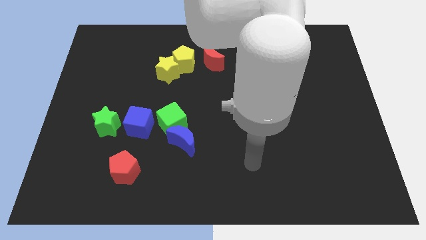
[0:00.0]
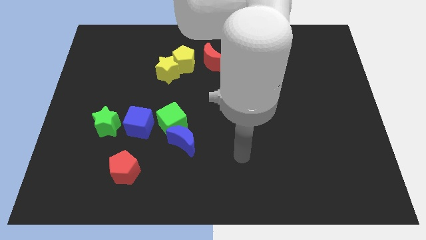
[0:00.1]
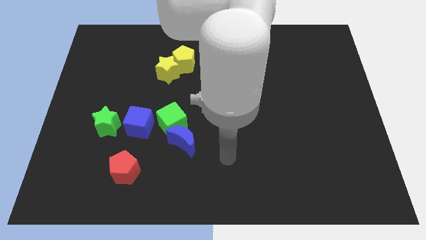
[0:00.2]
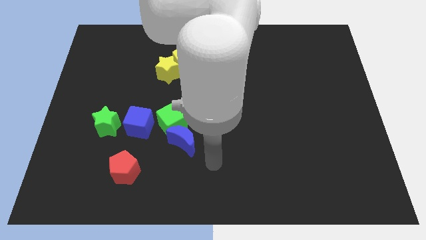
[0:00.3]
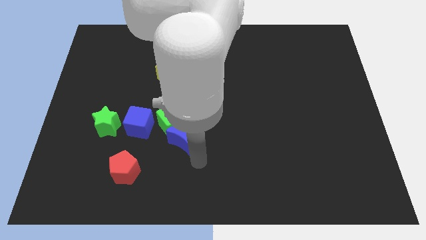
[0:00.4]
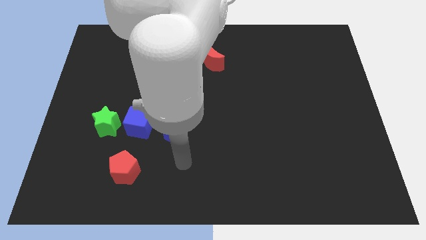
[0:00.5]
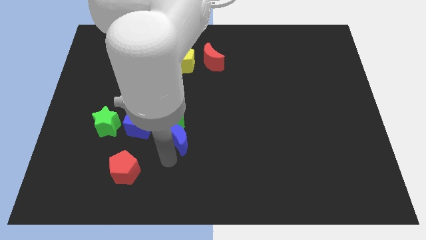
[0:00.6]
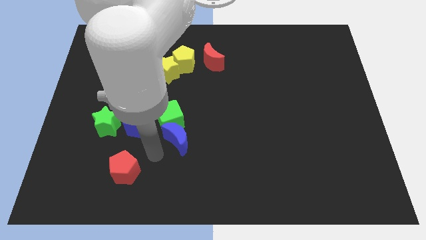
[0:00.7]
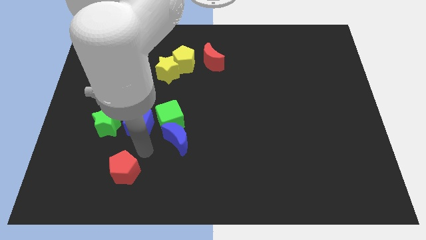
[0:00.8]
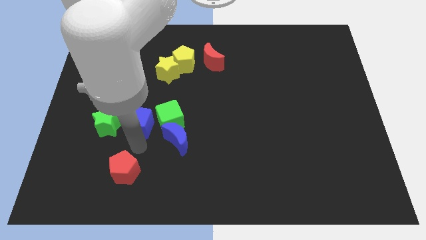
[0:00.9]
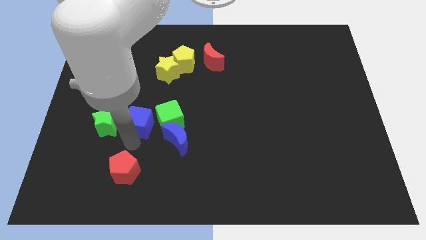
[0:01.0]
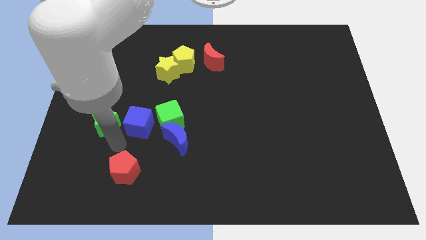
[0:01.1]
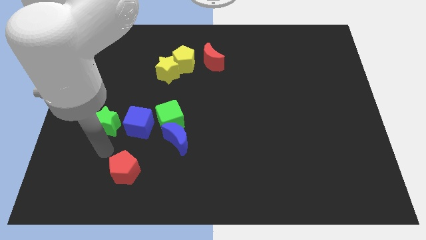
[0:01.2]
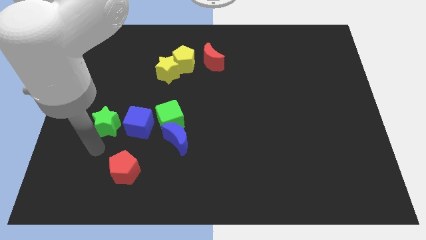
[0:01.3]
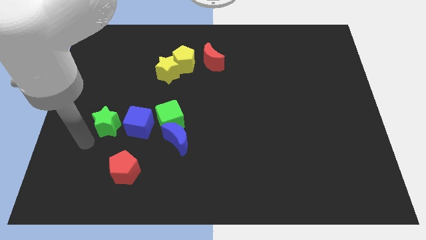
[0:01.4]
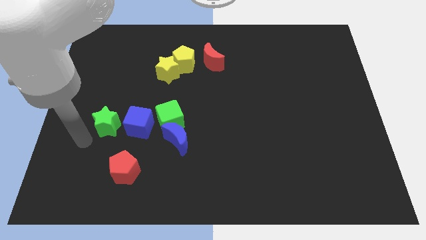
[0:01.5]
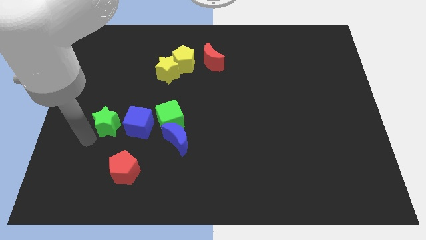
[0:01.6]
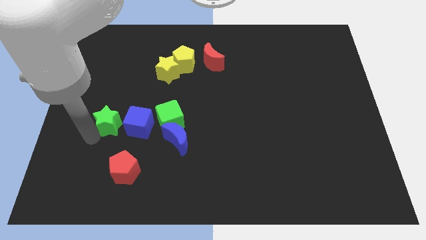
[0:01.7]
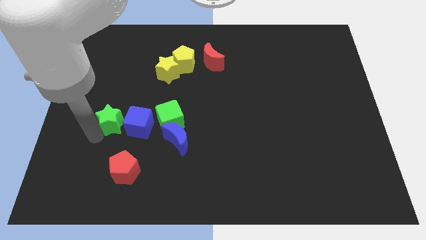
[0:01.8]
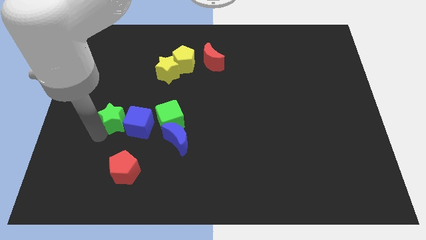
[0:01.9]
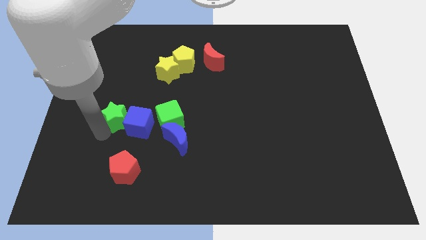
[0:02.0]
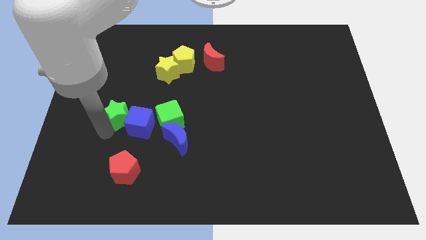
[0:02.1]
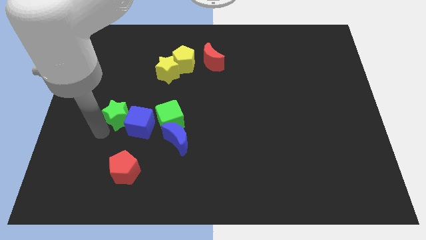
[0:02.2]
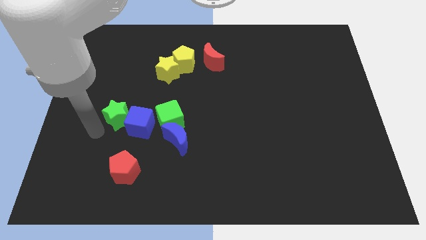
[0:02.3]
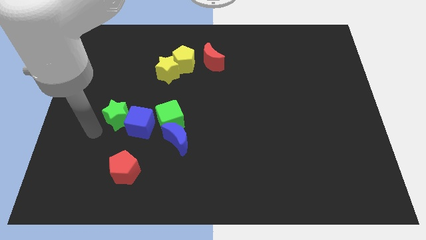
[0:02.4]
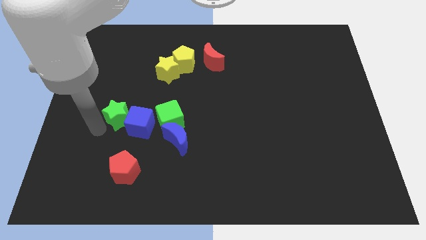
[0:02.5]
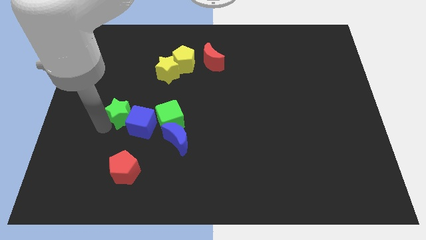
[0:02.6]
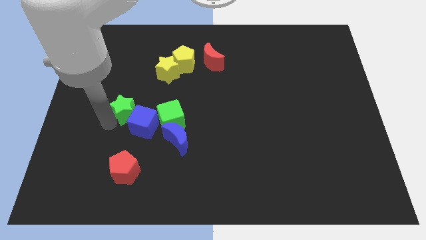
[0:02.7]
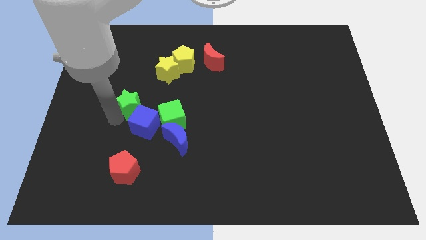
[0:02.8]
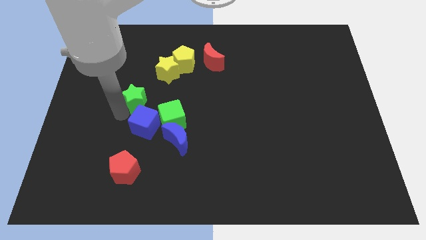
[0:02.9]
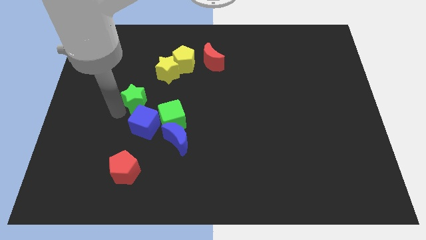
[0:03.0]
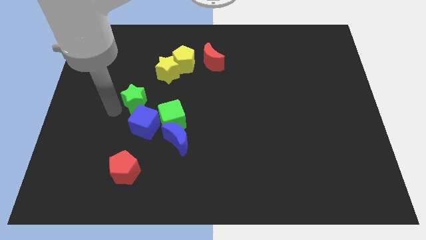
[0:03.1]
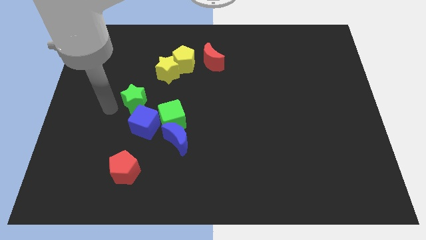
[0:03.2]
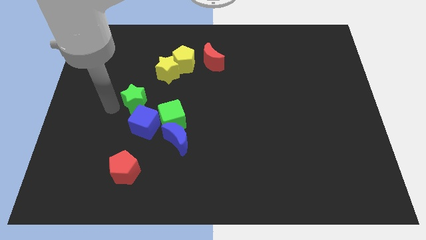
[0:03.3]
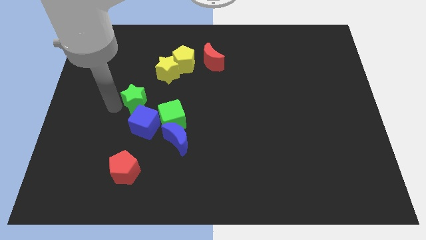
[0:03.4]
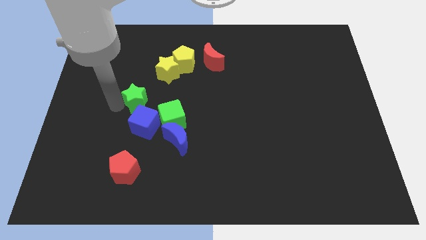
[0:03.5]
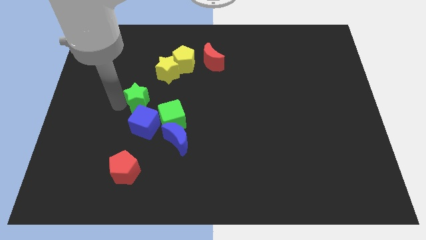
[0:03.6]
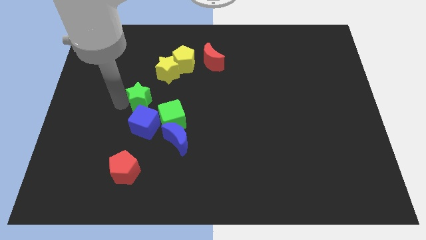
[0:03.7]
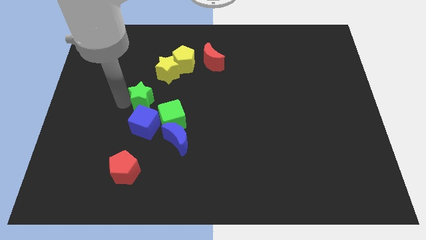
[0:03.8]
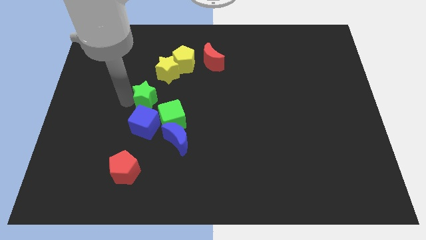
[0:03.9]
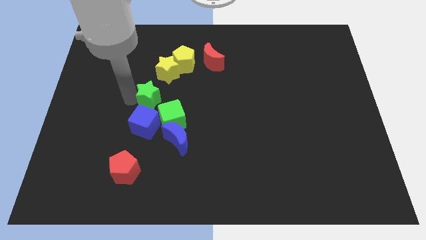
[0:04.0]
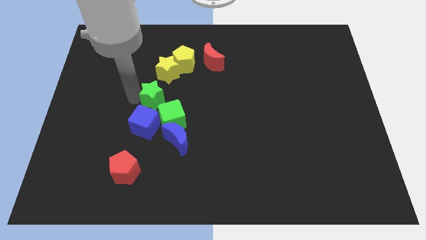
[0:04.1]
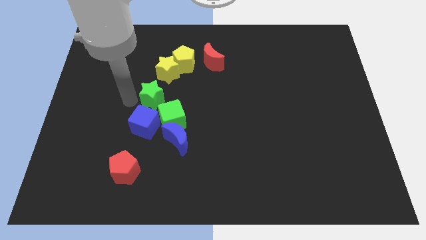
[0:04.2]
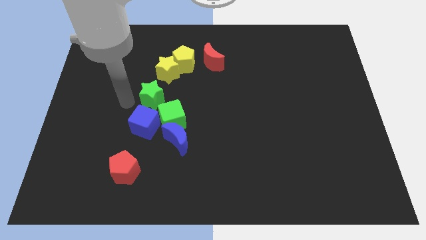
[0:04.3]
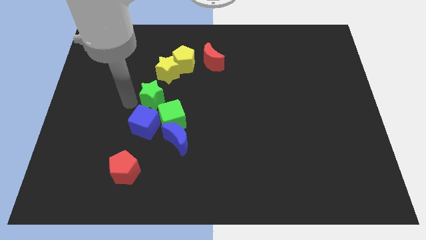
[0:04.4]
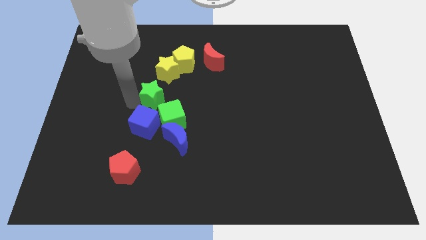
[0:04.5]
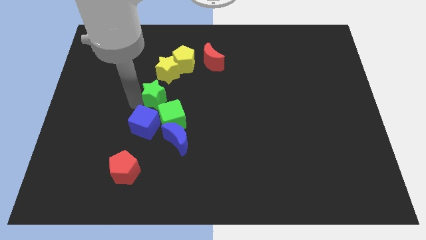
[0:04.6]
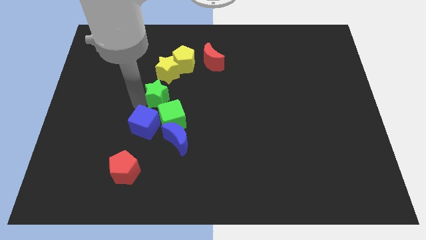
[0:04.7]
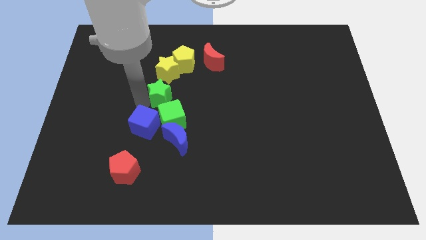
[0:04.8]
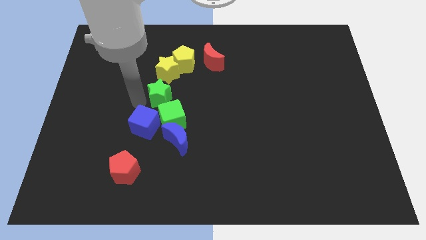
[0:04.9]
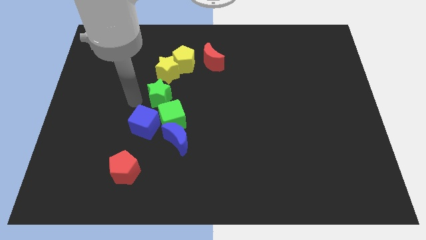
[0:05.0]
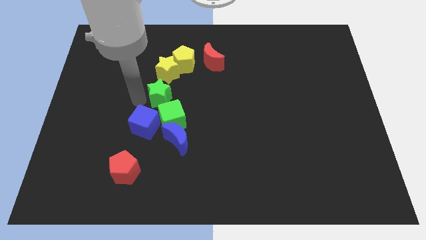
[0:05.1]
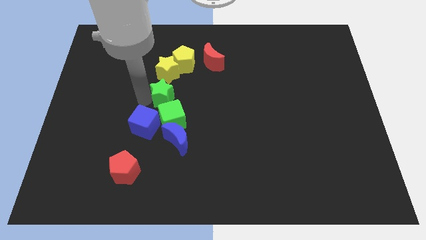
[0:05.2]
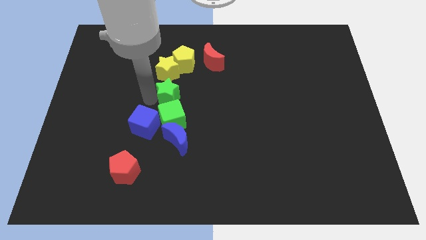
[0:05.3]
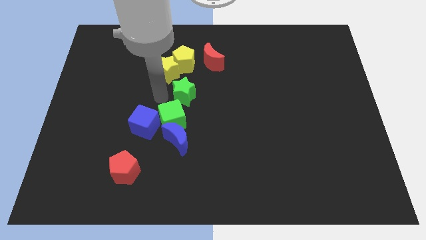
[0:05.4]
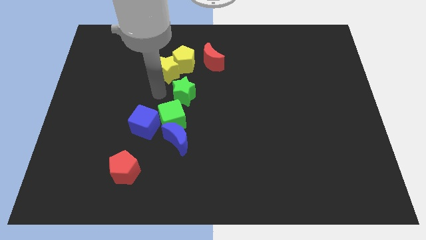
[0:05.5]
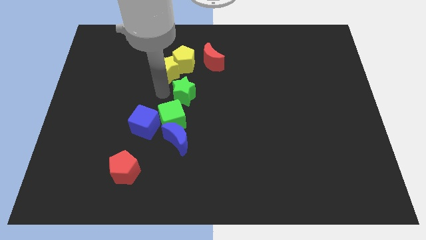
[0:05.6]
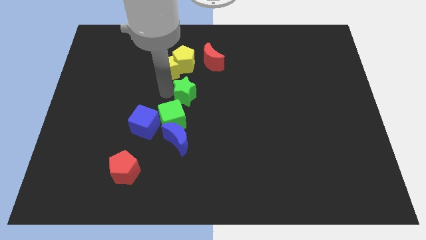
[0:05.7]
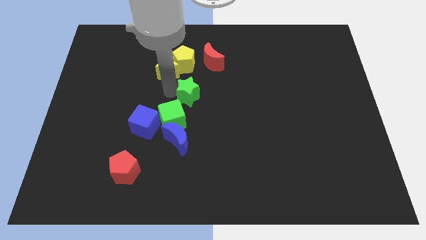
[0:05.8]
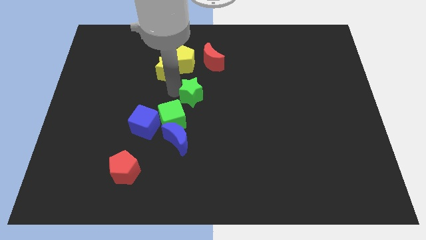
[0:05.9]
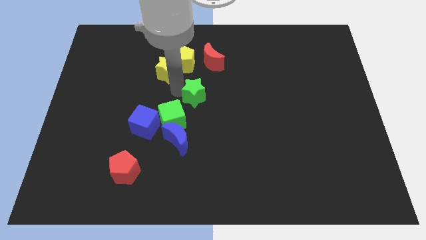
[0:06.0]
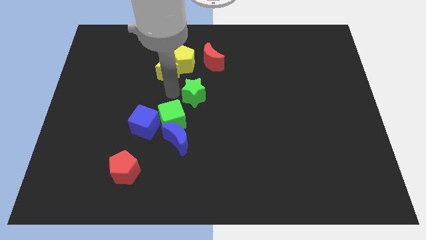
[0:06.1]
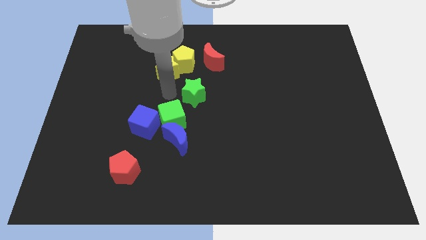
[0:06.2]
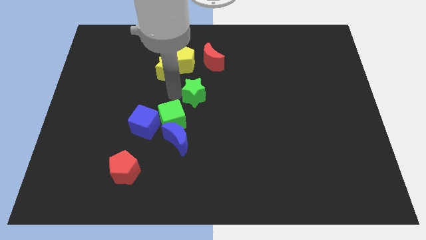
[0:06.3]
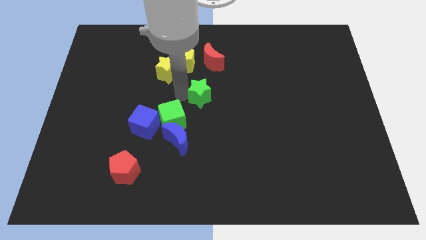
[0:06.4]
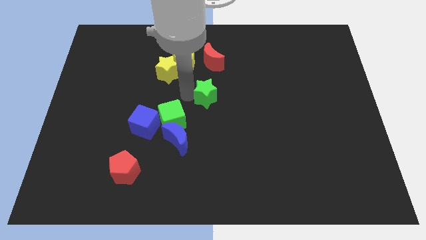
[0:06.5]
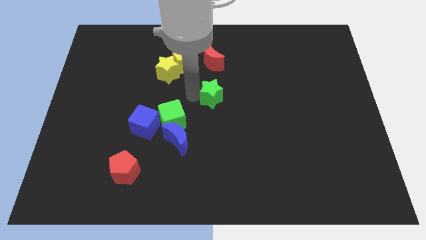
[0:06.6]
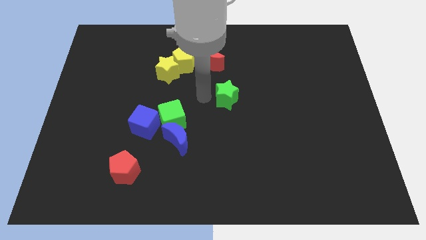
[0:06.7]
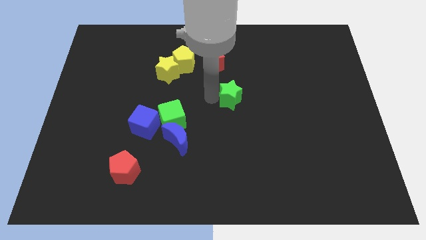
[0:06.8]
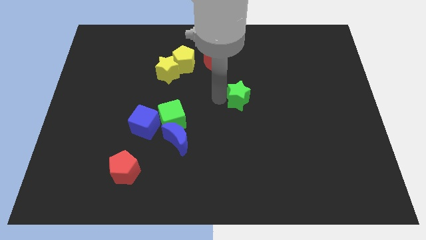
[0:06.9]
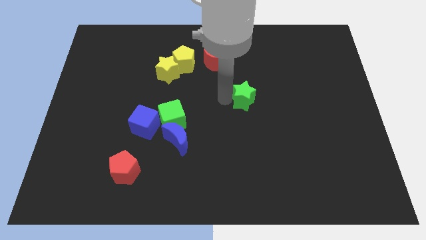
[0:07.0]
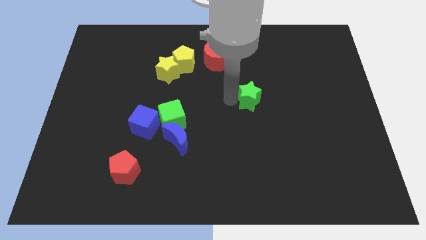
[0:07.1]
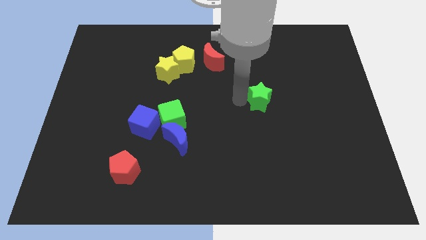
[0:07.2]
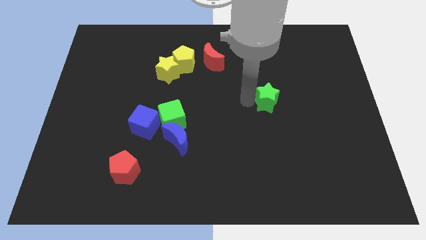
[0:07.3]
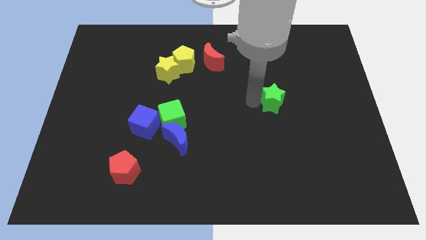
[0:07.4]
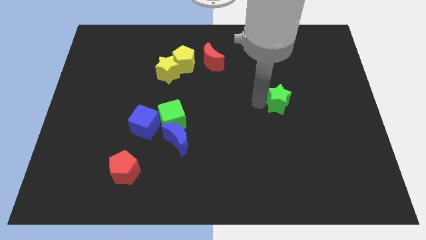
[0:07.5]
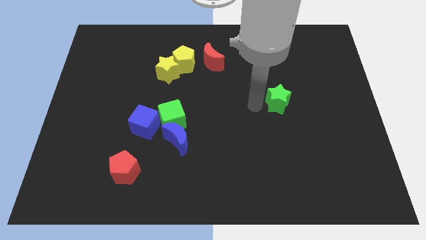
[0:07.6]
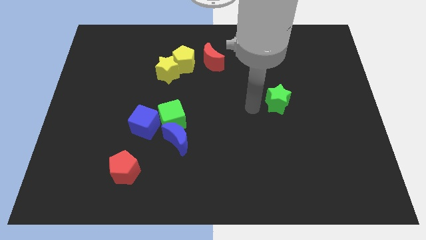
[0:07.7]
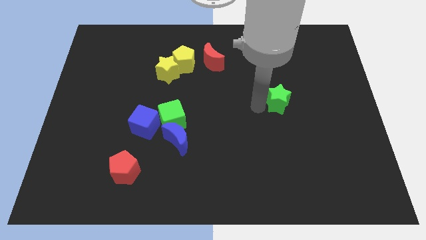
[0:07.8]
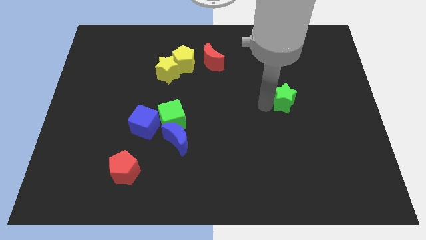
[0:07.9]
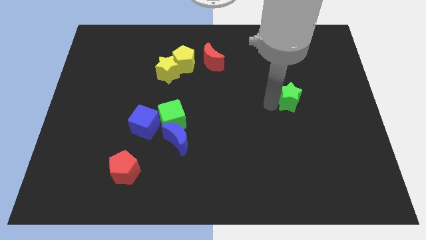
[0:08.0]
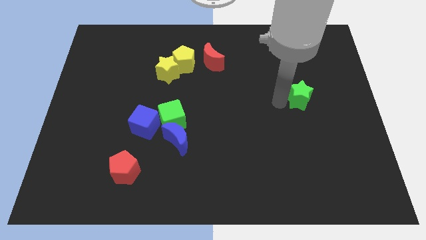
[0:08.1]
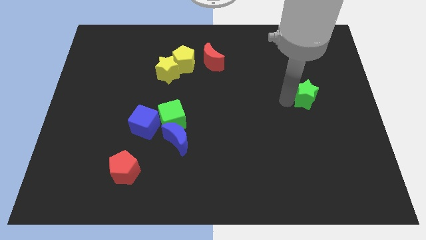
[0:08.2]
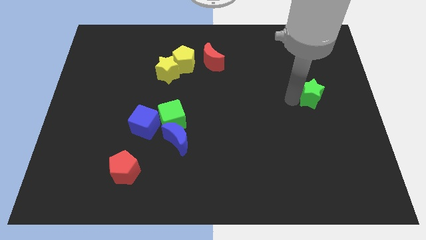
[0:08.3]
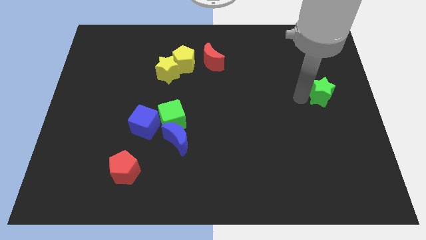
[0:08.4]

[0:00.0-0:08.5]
put the green star to the right side
